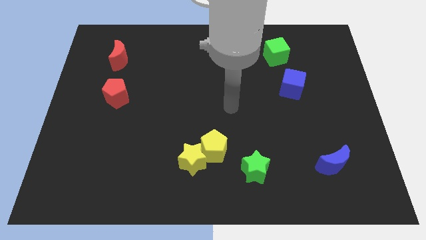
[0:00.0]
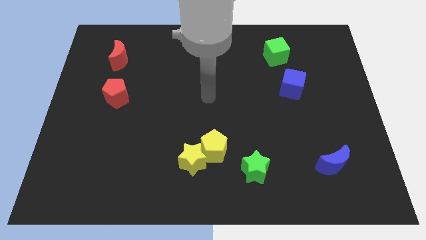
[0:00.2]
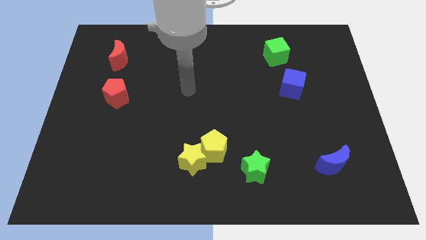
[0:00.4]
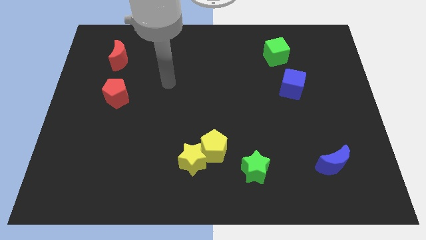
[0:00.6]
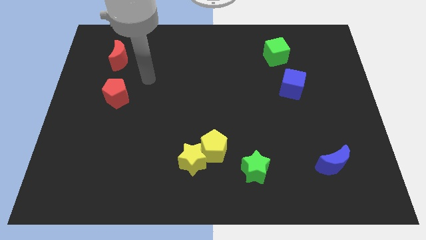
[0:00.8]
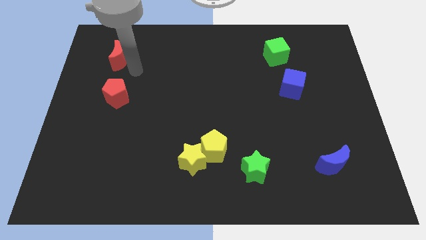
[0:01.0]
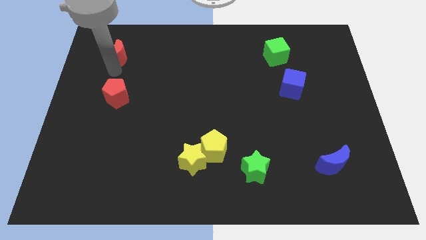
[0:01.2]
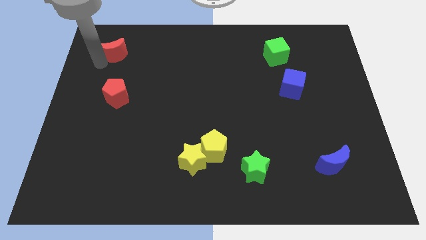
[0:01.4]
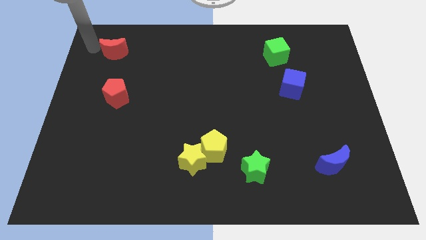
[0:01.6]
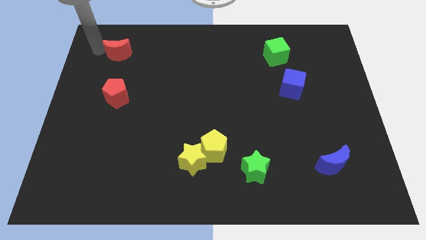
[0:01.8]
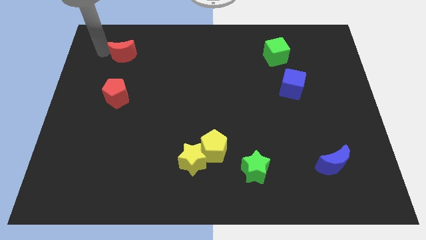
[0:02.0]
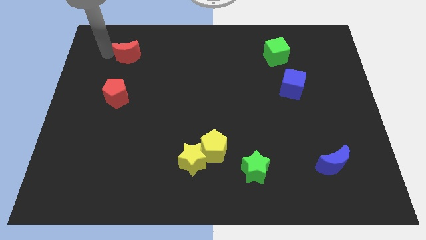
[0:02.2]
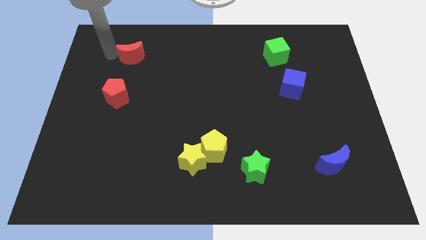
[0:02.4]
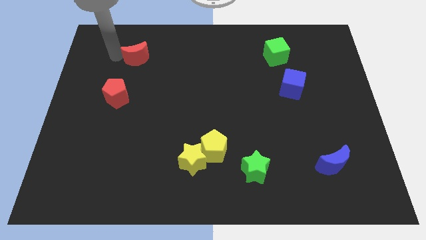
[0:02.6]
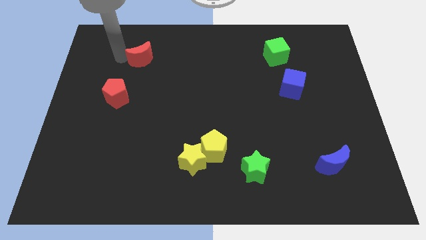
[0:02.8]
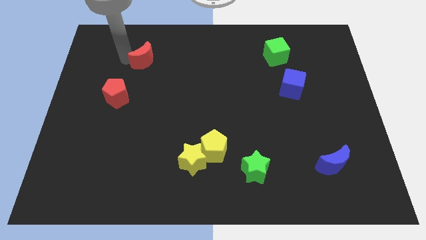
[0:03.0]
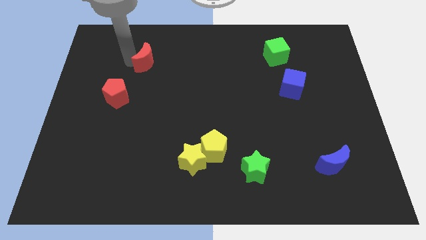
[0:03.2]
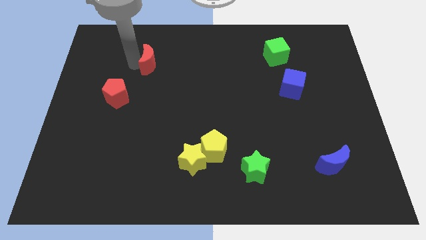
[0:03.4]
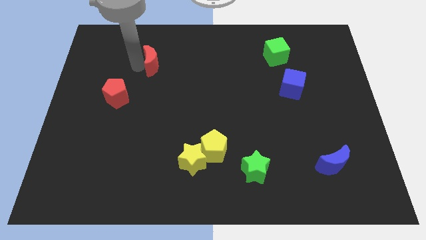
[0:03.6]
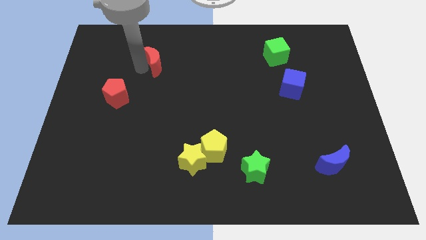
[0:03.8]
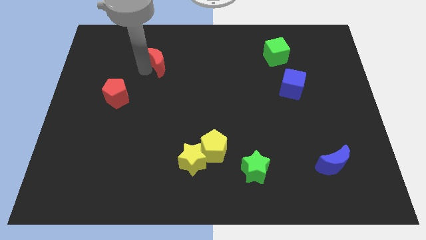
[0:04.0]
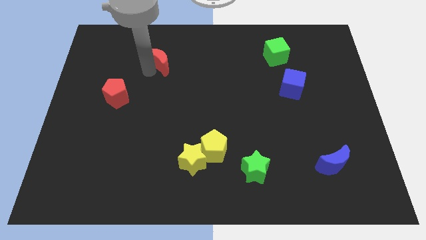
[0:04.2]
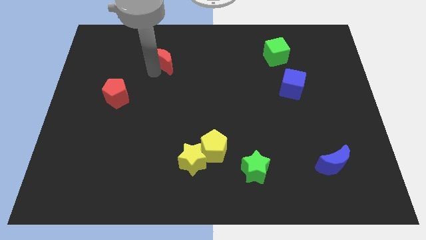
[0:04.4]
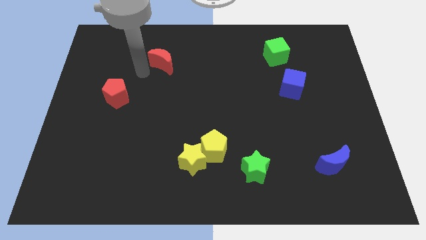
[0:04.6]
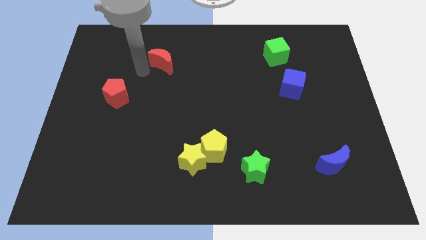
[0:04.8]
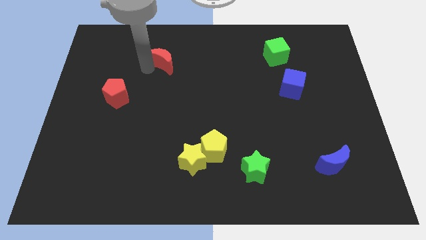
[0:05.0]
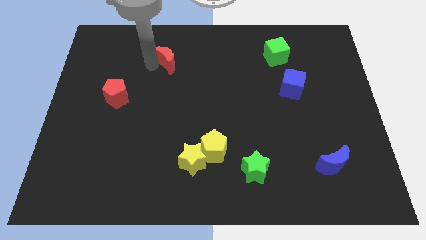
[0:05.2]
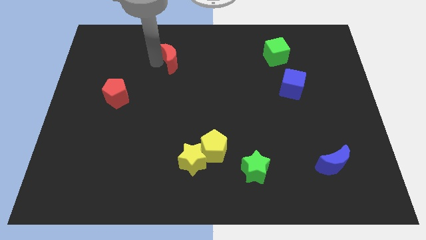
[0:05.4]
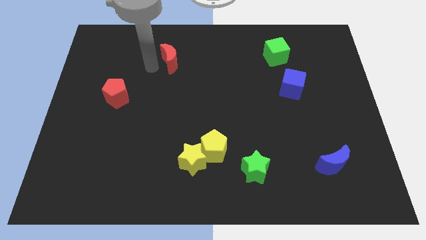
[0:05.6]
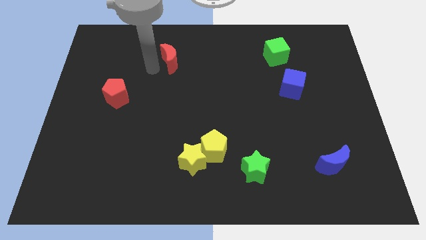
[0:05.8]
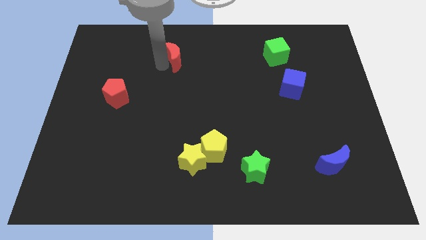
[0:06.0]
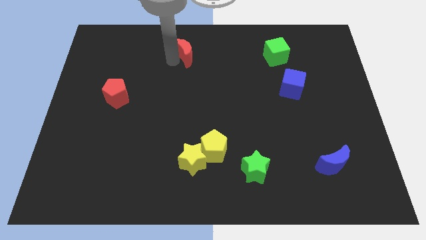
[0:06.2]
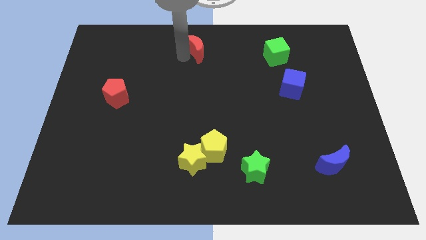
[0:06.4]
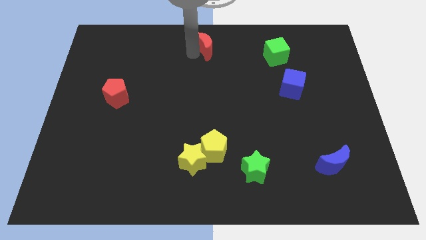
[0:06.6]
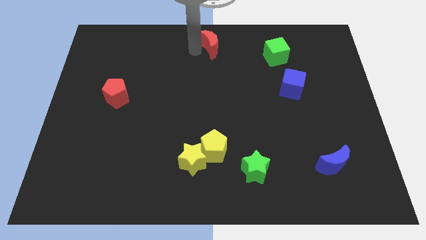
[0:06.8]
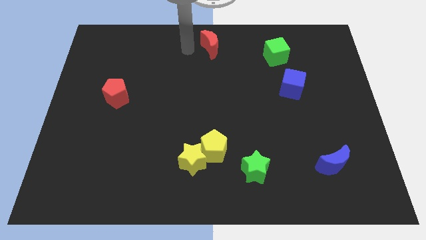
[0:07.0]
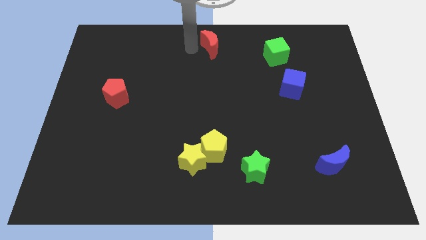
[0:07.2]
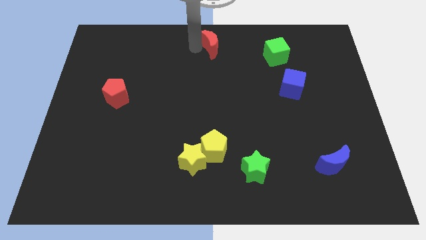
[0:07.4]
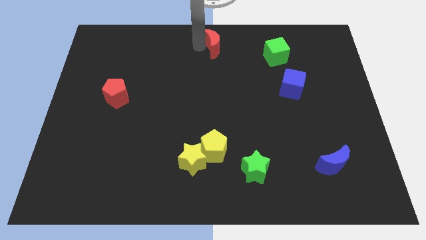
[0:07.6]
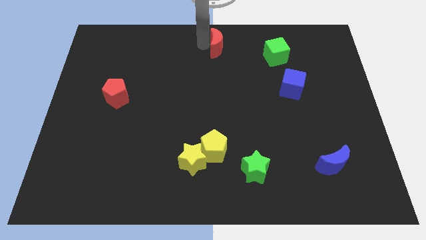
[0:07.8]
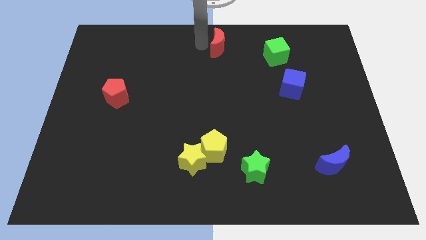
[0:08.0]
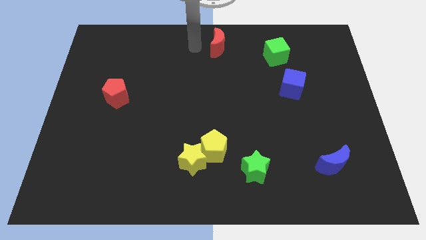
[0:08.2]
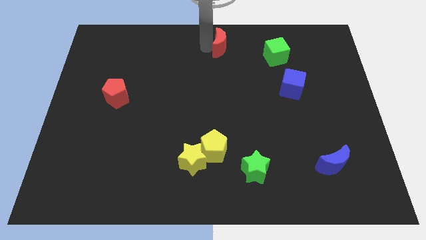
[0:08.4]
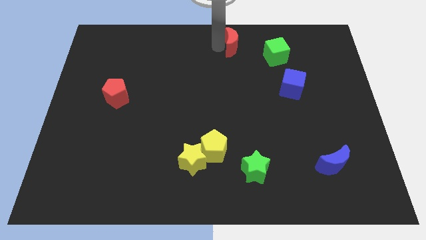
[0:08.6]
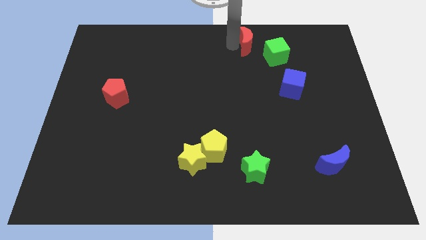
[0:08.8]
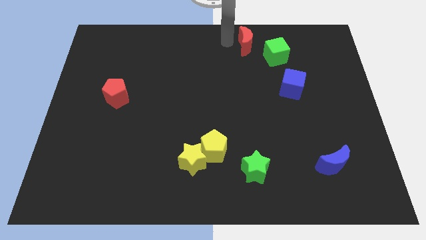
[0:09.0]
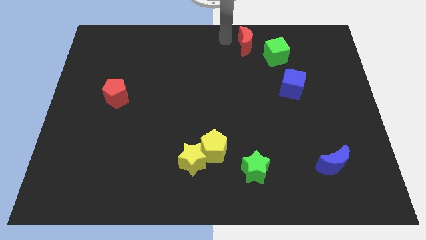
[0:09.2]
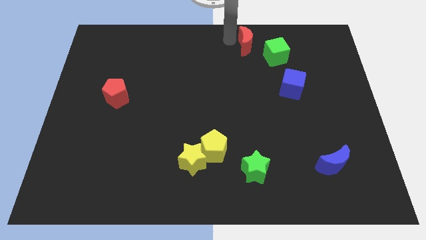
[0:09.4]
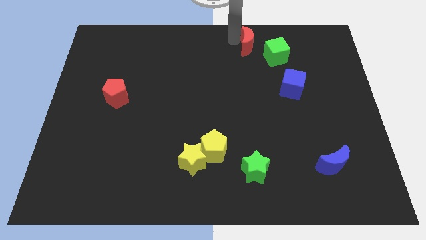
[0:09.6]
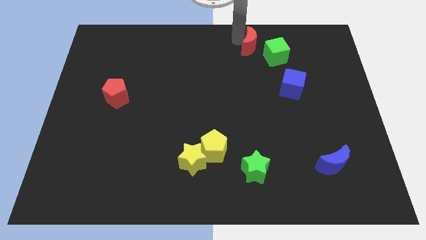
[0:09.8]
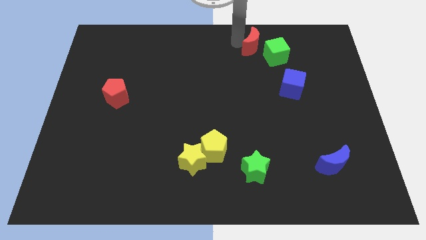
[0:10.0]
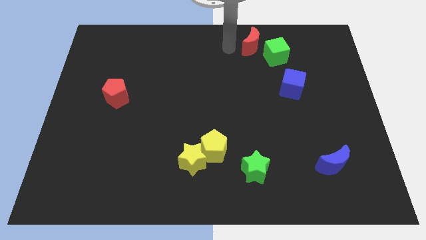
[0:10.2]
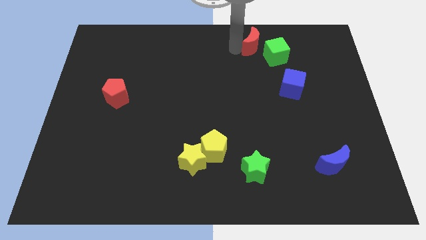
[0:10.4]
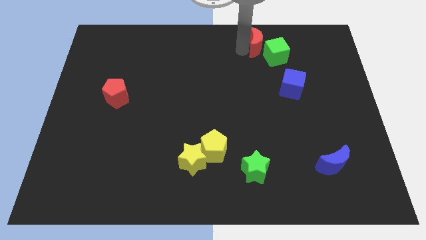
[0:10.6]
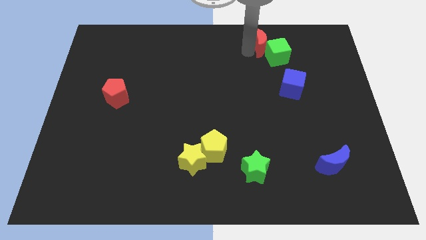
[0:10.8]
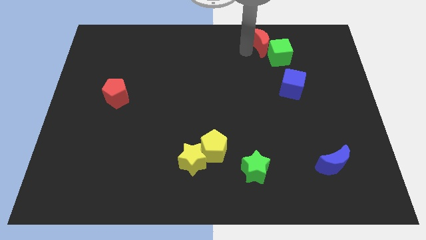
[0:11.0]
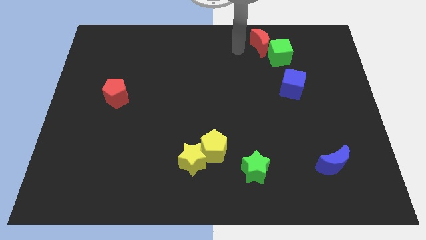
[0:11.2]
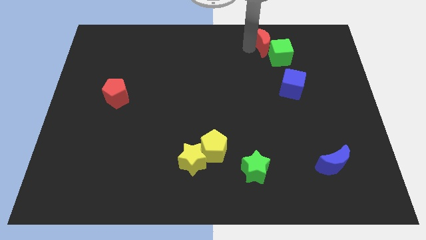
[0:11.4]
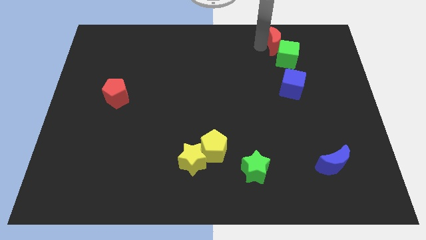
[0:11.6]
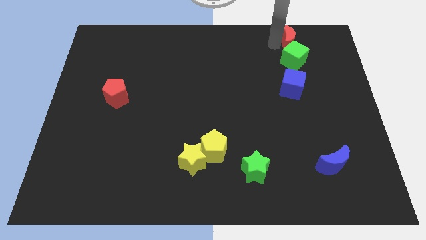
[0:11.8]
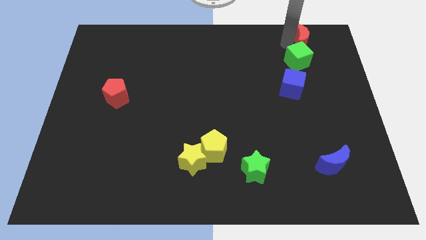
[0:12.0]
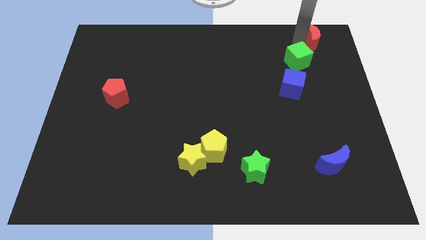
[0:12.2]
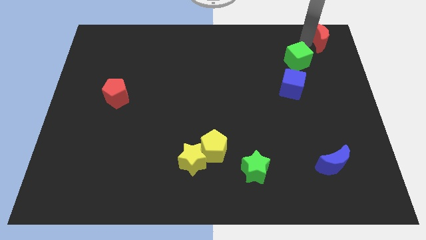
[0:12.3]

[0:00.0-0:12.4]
move the red moon to the upper right corner

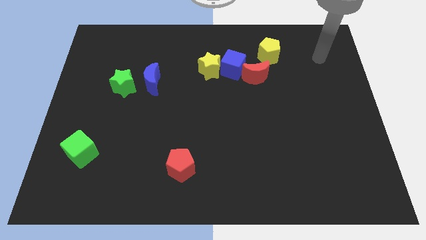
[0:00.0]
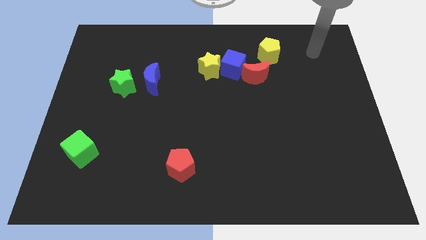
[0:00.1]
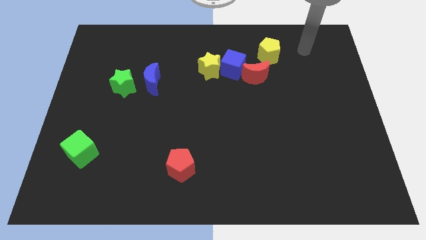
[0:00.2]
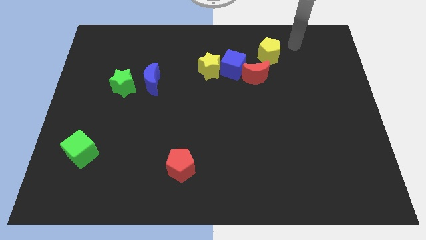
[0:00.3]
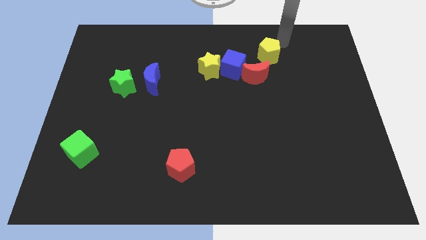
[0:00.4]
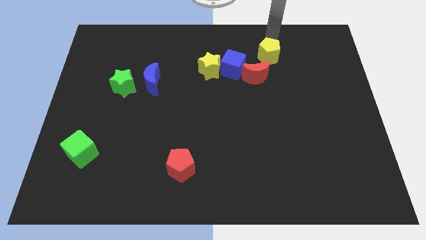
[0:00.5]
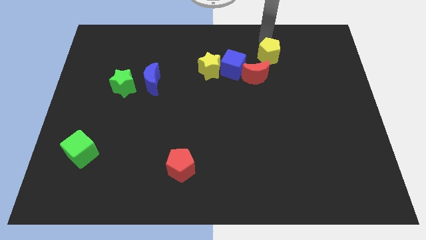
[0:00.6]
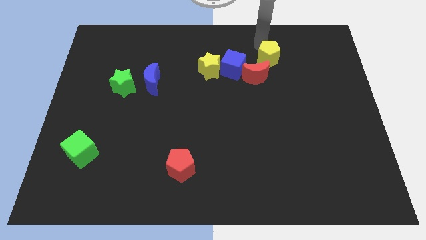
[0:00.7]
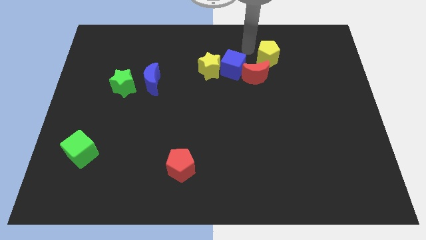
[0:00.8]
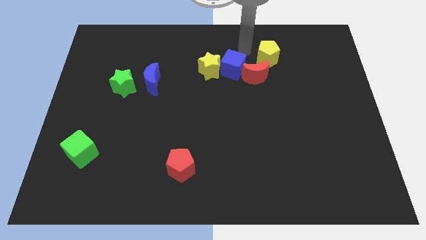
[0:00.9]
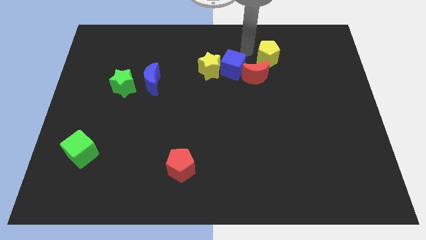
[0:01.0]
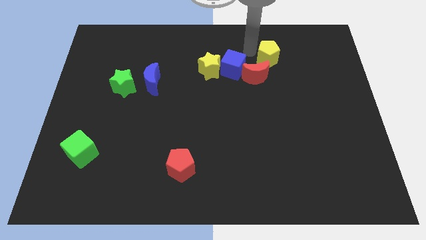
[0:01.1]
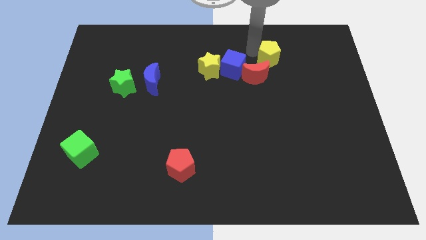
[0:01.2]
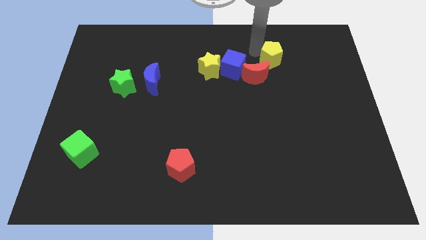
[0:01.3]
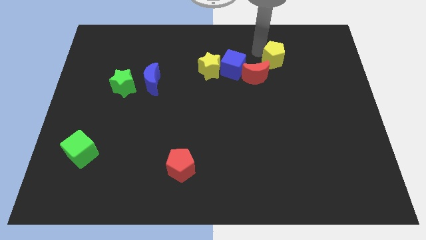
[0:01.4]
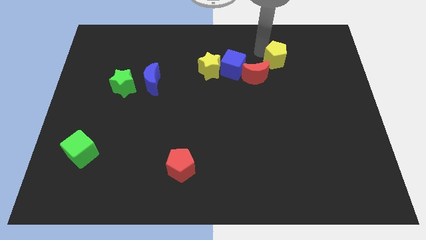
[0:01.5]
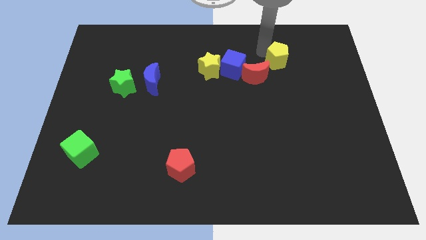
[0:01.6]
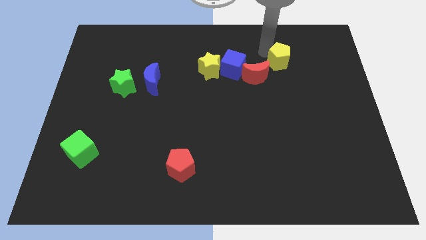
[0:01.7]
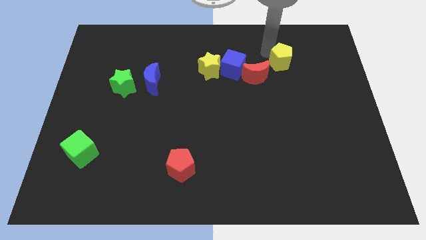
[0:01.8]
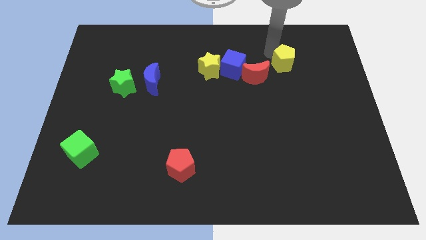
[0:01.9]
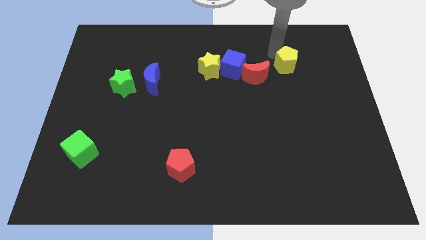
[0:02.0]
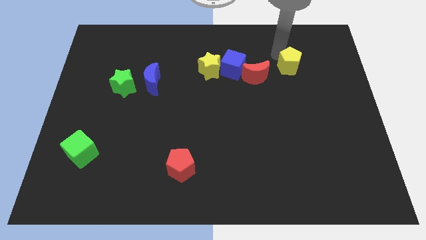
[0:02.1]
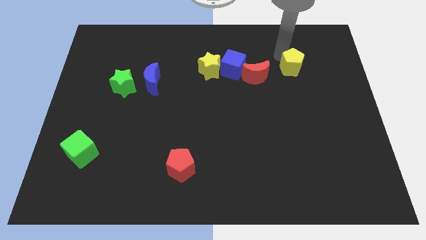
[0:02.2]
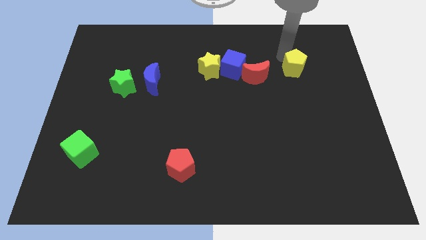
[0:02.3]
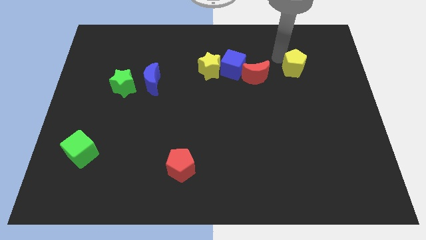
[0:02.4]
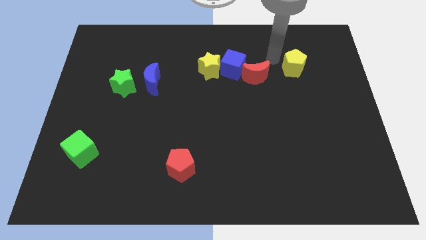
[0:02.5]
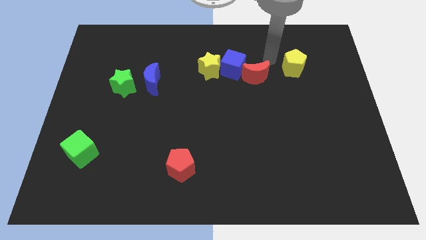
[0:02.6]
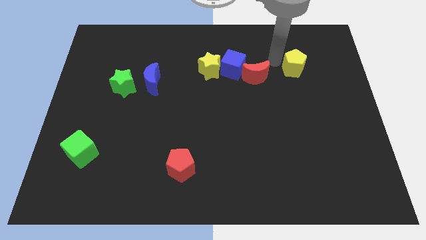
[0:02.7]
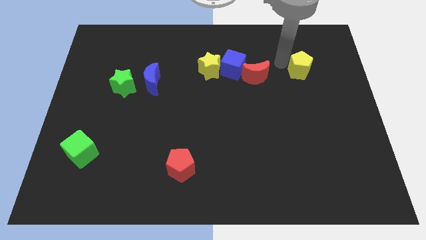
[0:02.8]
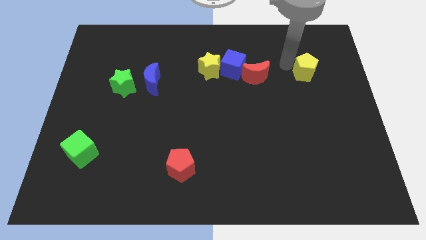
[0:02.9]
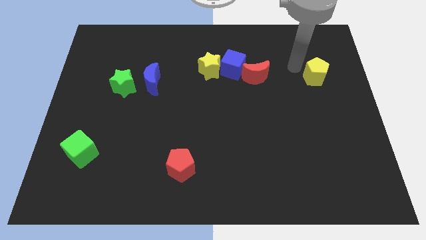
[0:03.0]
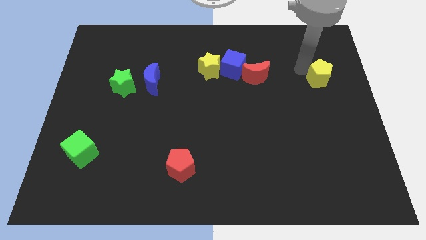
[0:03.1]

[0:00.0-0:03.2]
put the yellow pentagon to the right side of the board
